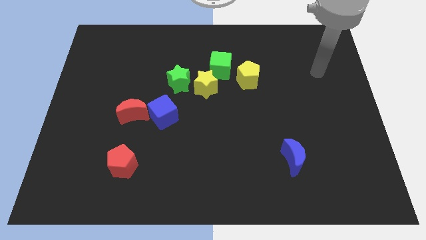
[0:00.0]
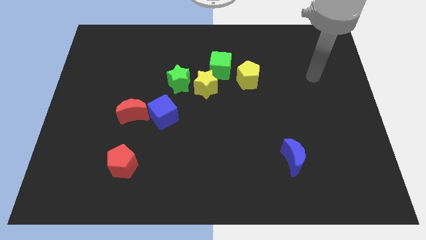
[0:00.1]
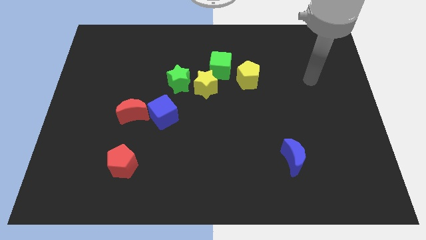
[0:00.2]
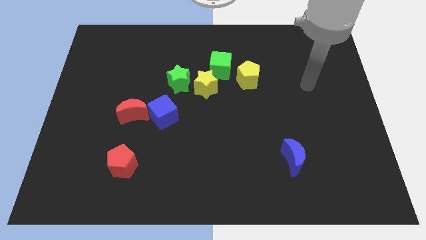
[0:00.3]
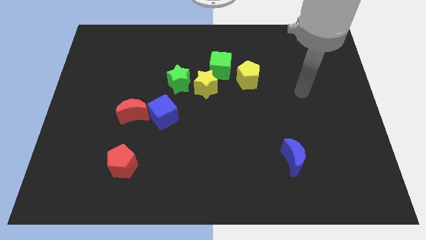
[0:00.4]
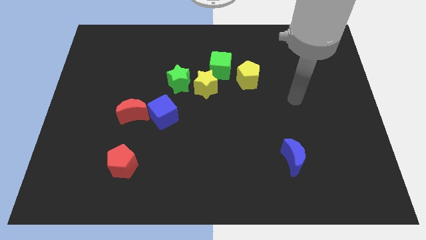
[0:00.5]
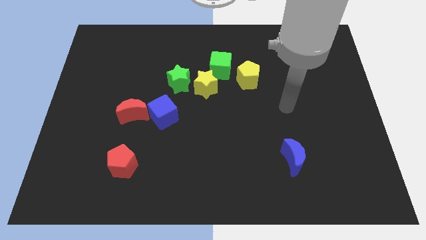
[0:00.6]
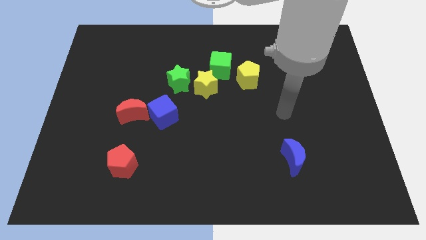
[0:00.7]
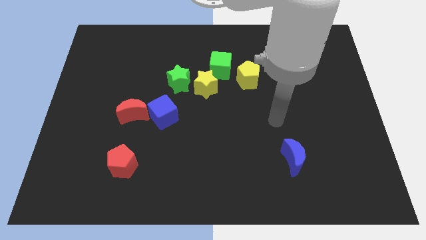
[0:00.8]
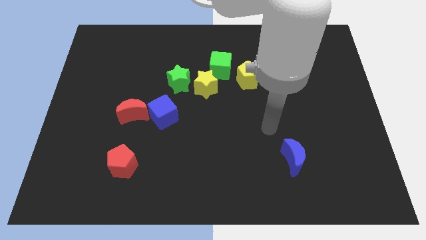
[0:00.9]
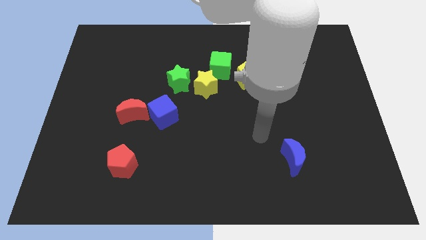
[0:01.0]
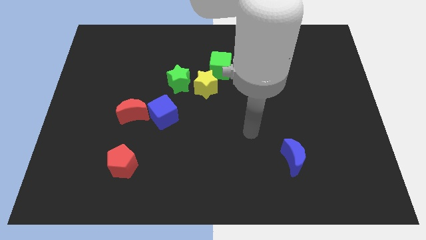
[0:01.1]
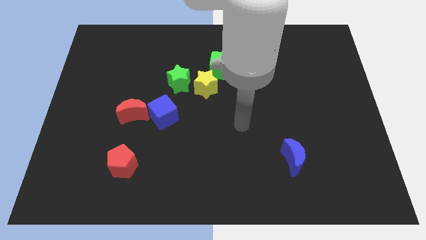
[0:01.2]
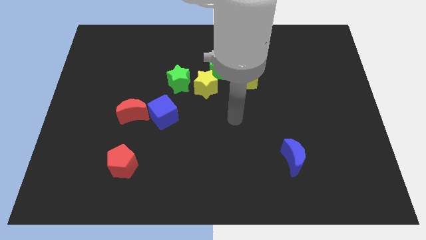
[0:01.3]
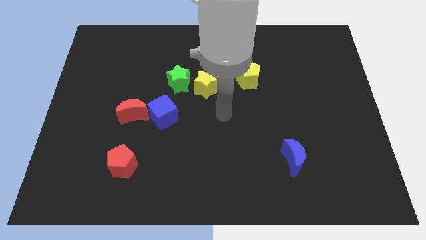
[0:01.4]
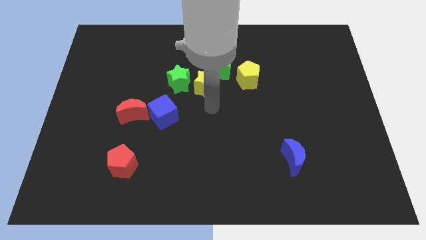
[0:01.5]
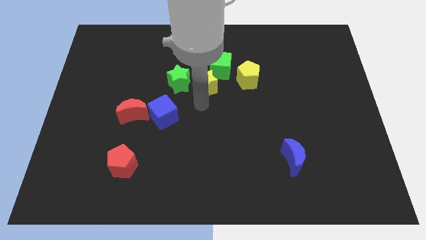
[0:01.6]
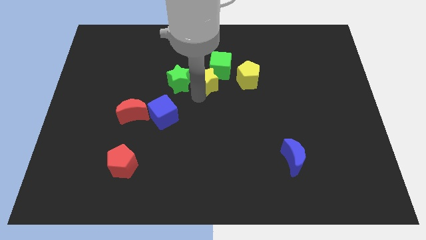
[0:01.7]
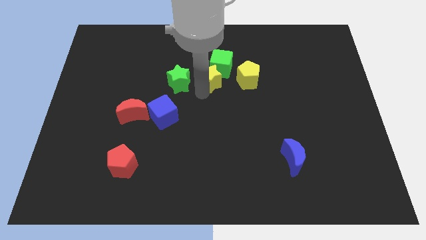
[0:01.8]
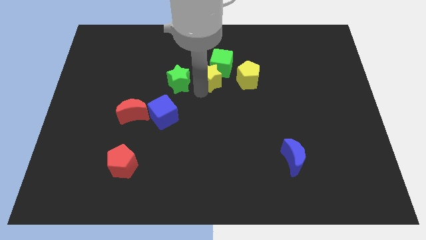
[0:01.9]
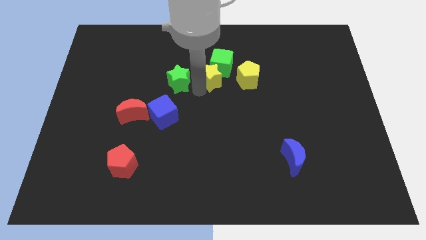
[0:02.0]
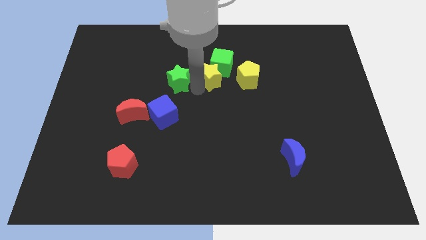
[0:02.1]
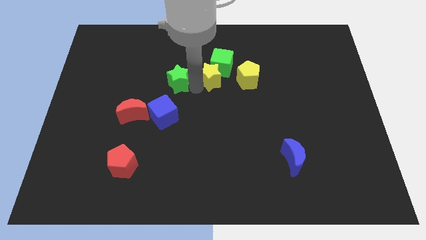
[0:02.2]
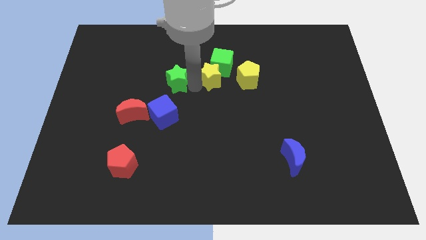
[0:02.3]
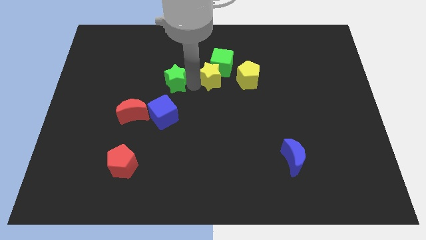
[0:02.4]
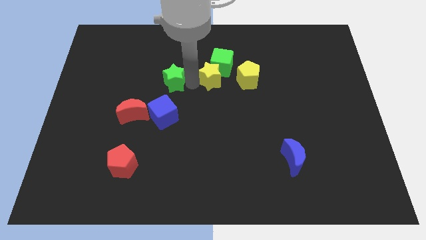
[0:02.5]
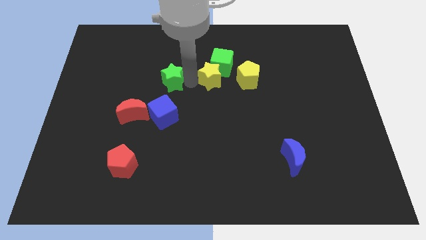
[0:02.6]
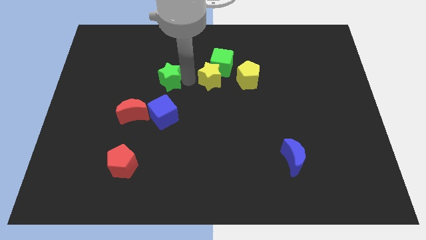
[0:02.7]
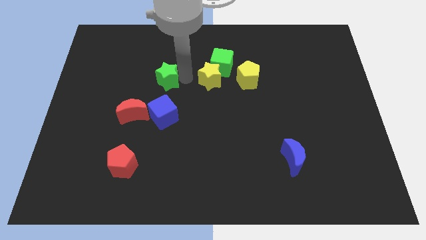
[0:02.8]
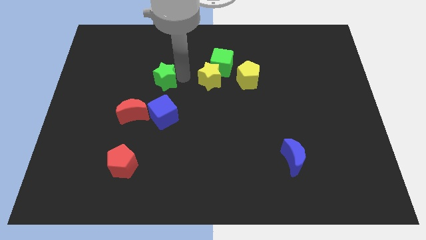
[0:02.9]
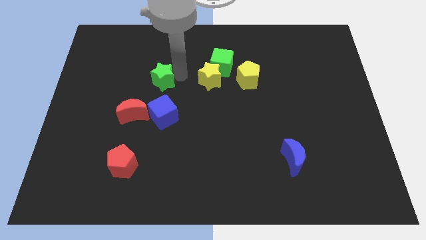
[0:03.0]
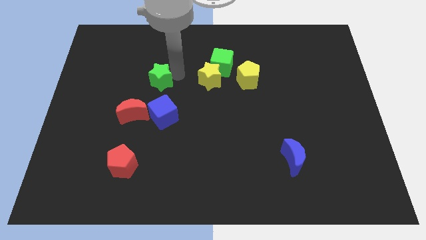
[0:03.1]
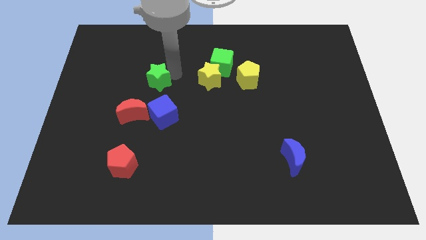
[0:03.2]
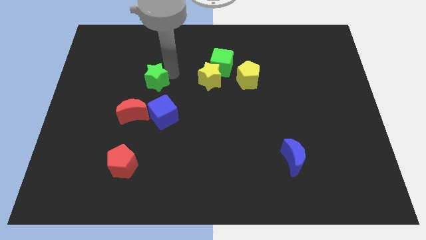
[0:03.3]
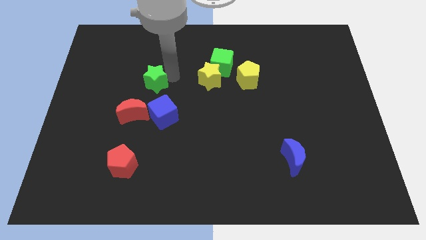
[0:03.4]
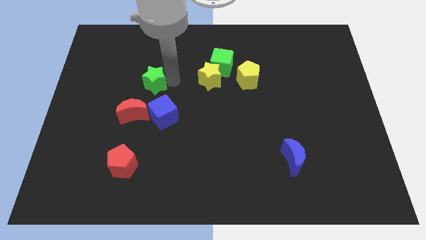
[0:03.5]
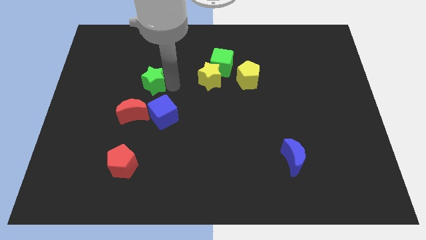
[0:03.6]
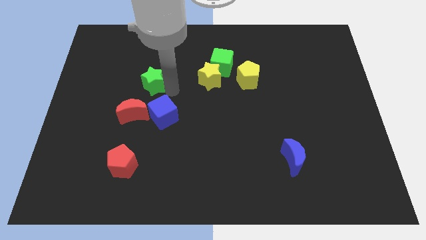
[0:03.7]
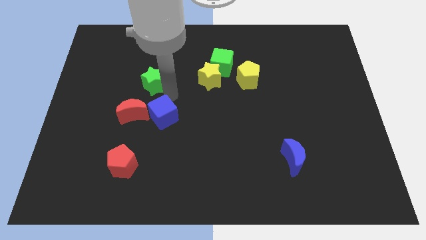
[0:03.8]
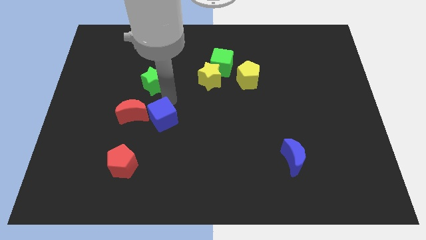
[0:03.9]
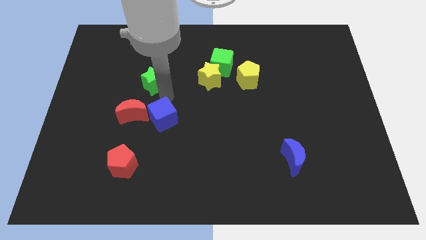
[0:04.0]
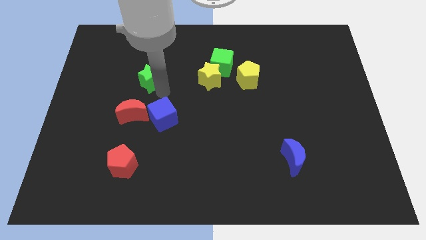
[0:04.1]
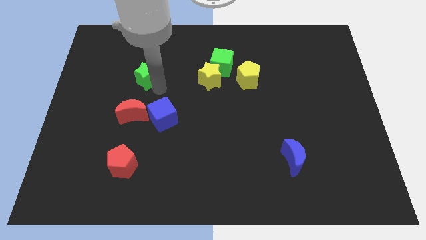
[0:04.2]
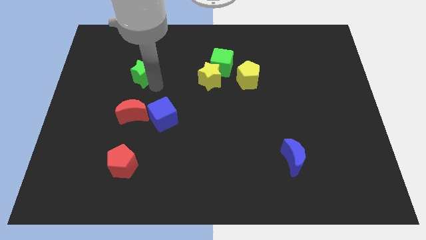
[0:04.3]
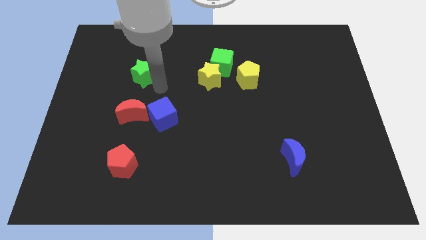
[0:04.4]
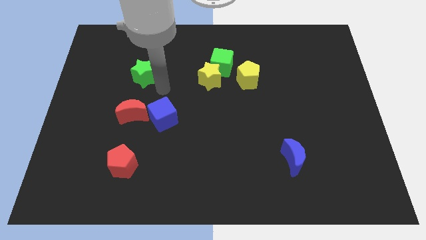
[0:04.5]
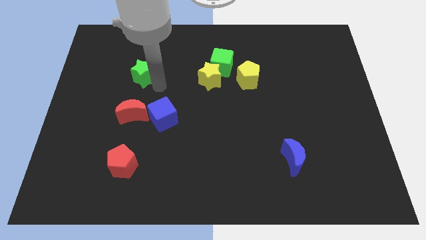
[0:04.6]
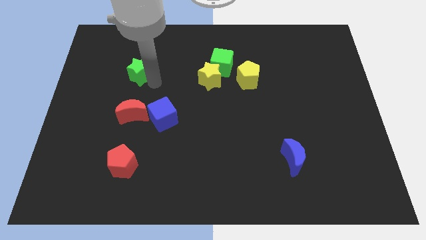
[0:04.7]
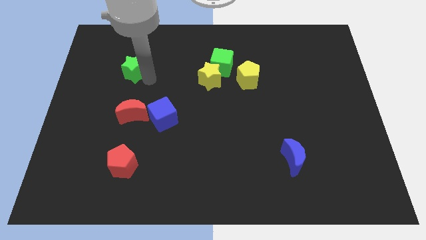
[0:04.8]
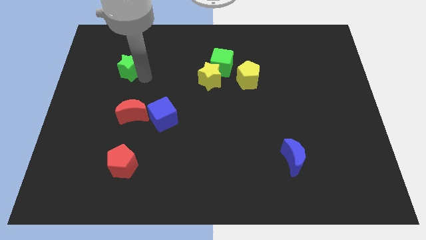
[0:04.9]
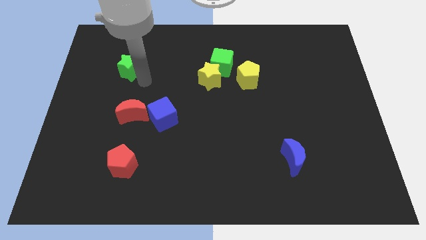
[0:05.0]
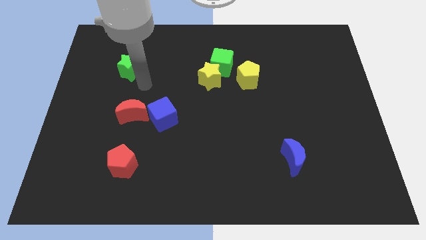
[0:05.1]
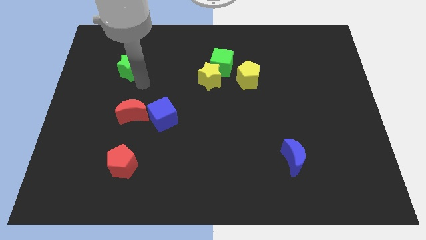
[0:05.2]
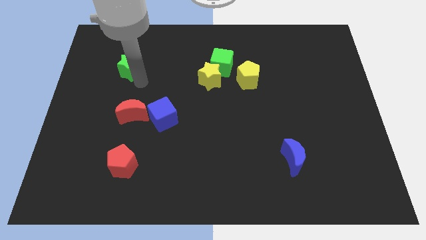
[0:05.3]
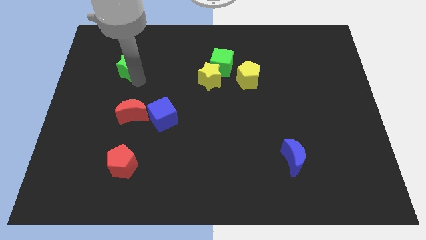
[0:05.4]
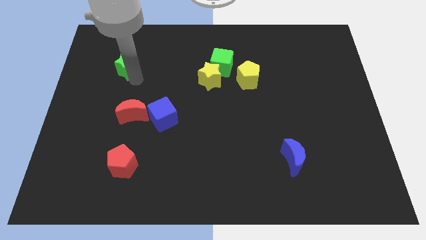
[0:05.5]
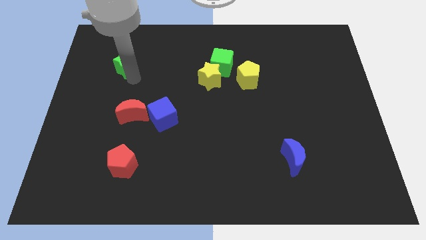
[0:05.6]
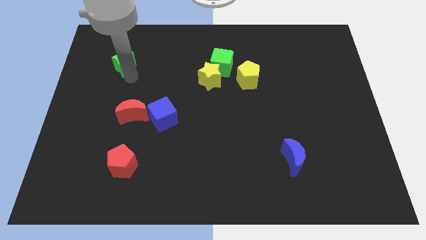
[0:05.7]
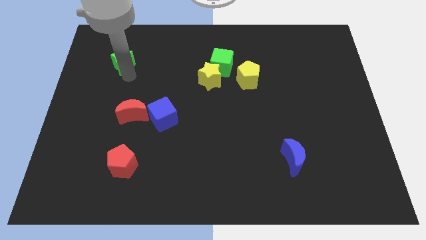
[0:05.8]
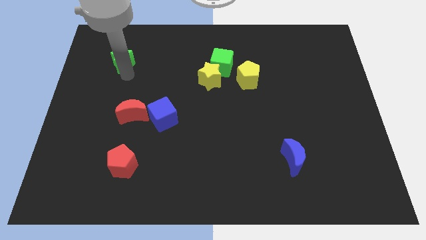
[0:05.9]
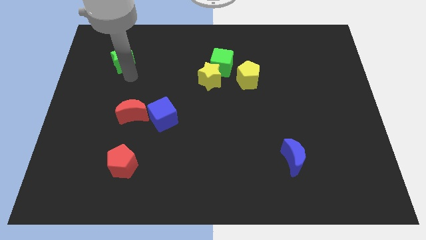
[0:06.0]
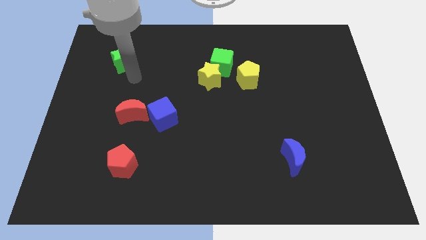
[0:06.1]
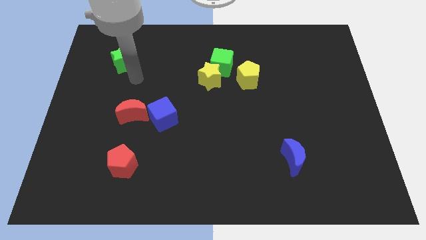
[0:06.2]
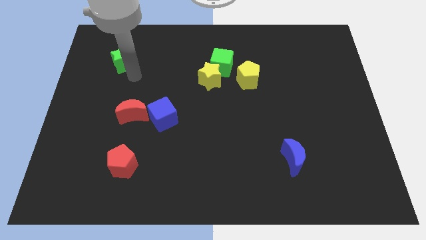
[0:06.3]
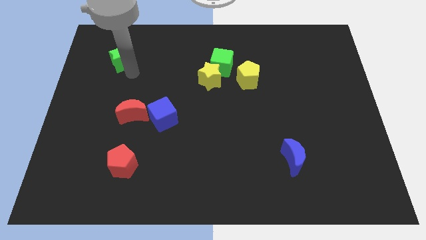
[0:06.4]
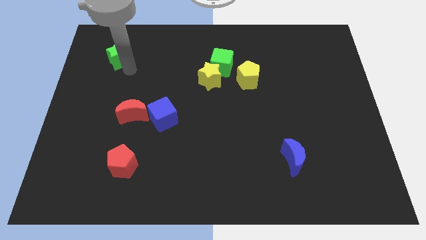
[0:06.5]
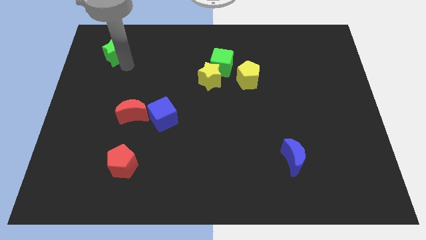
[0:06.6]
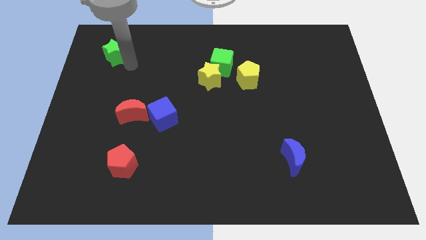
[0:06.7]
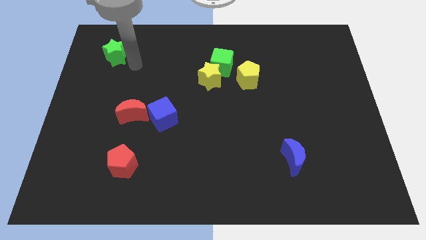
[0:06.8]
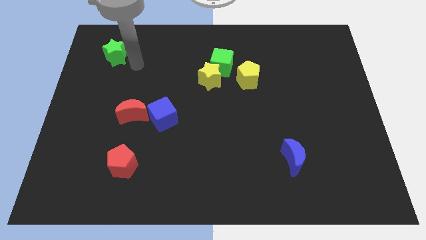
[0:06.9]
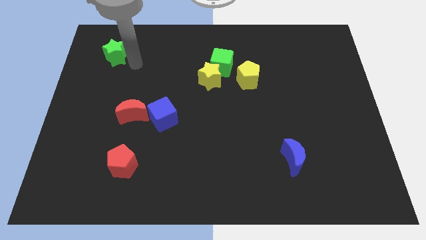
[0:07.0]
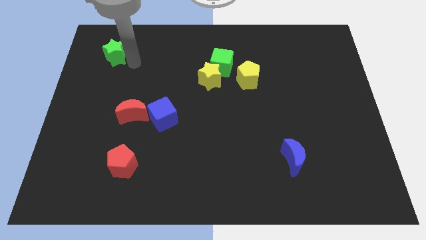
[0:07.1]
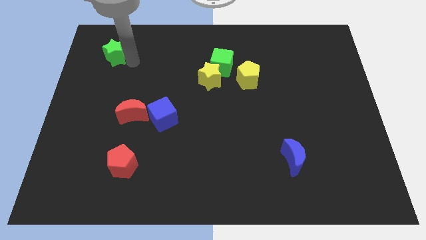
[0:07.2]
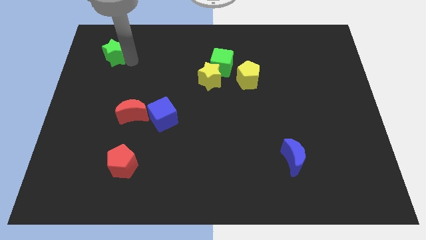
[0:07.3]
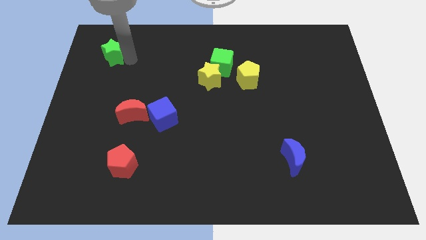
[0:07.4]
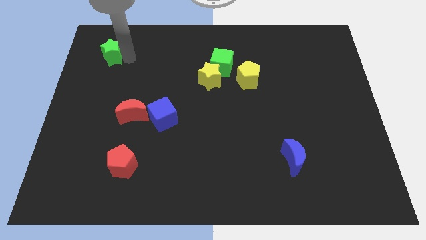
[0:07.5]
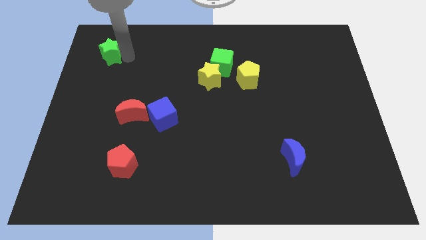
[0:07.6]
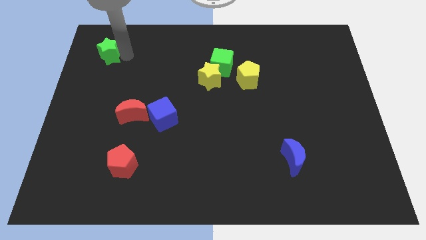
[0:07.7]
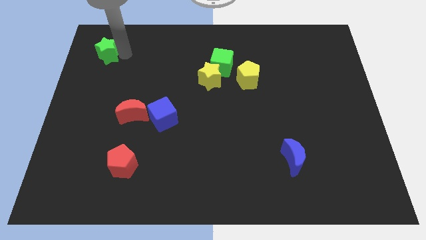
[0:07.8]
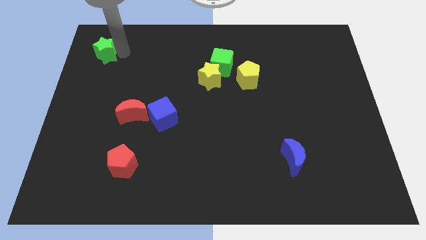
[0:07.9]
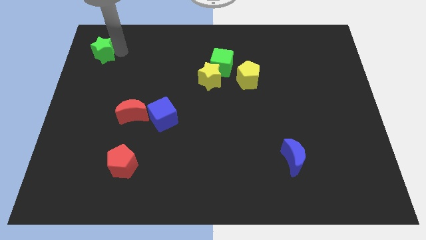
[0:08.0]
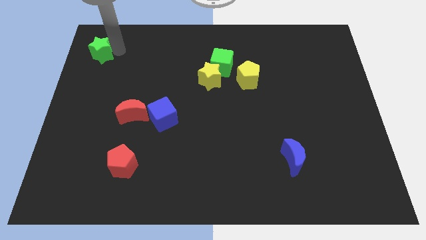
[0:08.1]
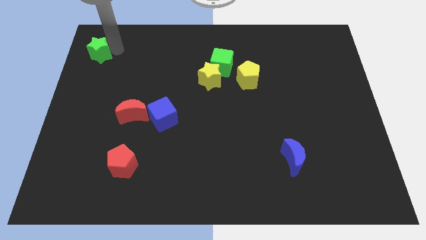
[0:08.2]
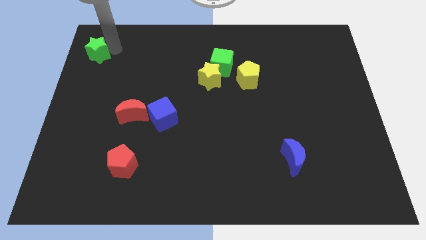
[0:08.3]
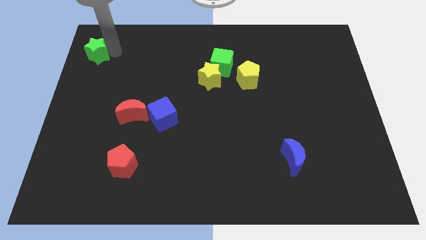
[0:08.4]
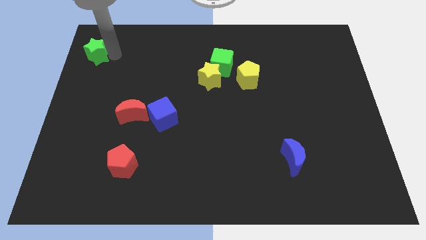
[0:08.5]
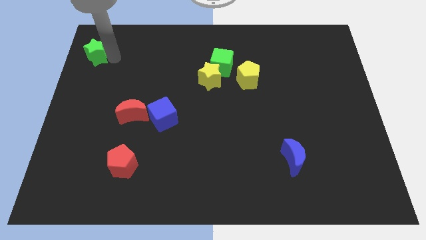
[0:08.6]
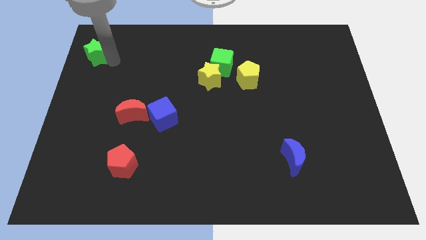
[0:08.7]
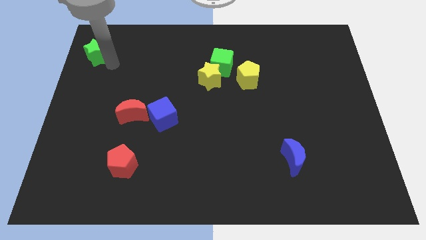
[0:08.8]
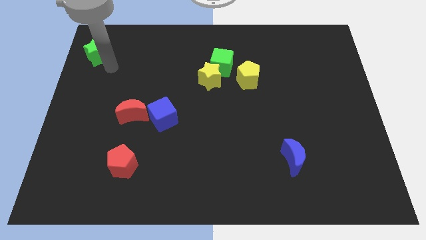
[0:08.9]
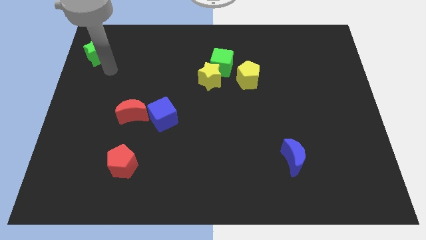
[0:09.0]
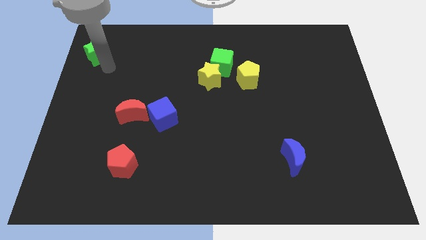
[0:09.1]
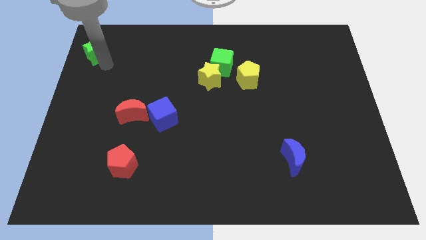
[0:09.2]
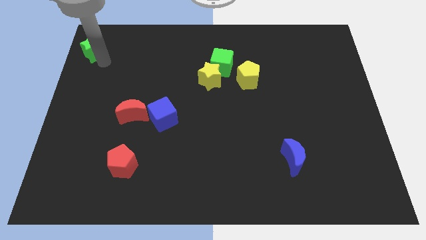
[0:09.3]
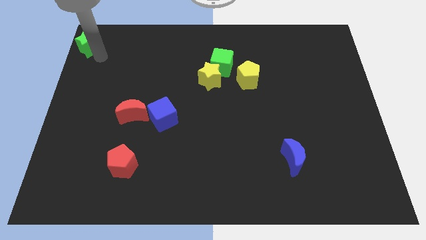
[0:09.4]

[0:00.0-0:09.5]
move the green star to the upper left corner
